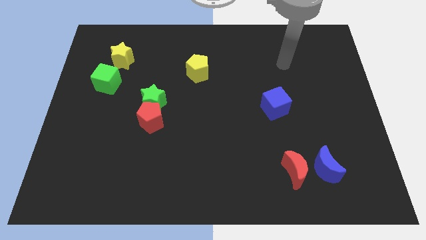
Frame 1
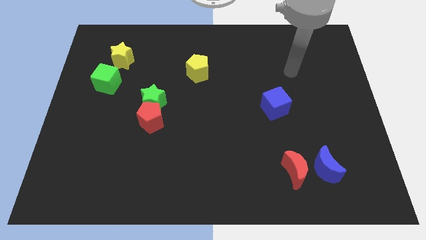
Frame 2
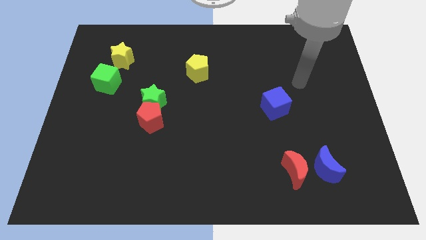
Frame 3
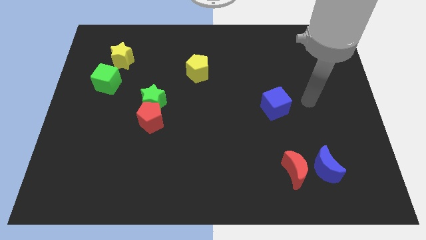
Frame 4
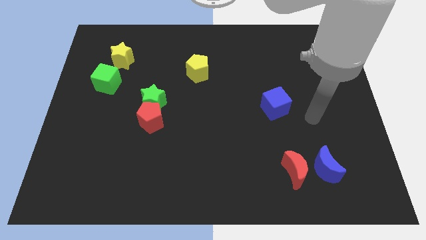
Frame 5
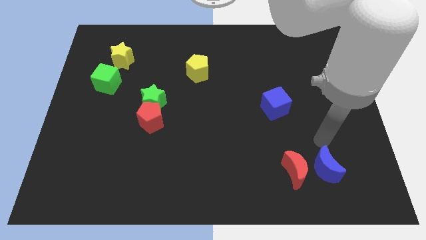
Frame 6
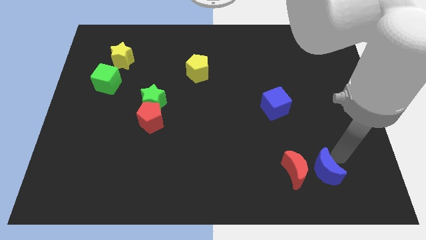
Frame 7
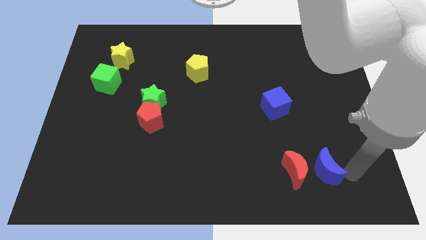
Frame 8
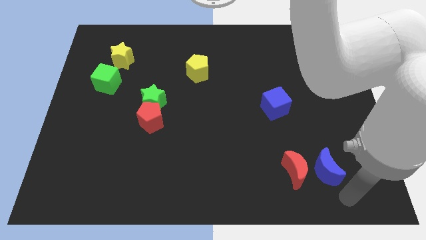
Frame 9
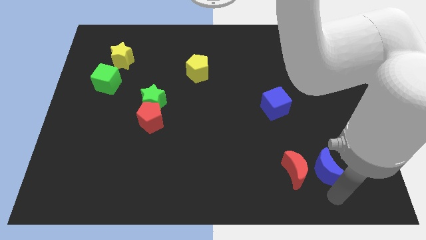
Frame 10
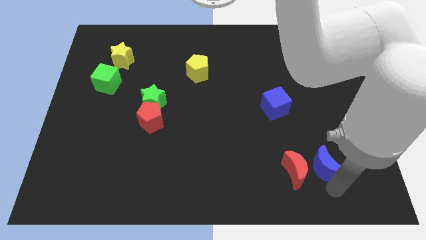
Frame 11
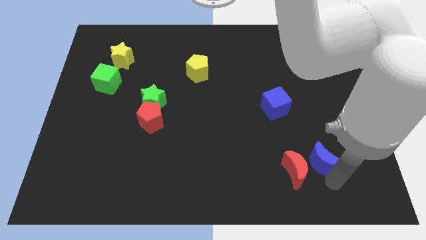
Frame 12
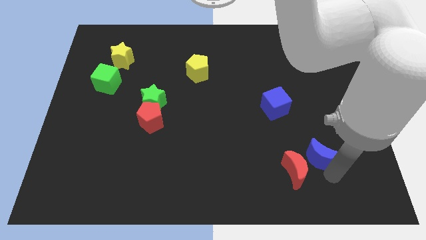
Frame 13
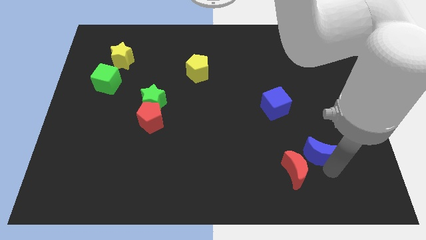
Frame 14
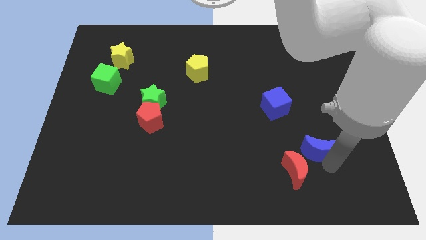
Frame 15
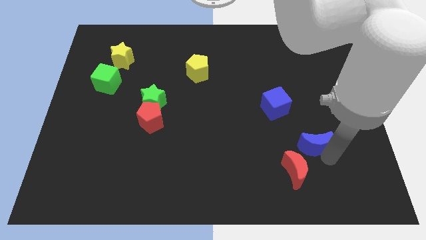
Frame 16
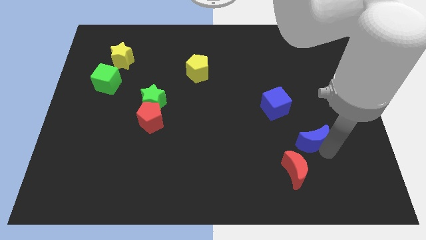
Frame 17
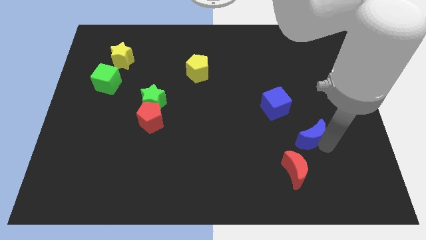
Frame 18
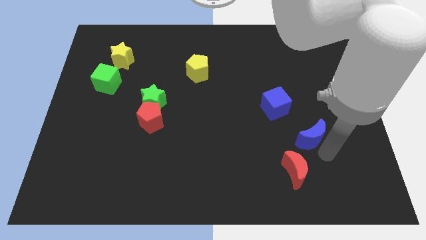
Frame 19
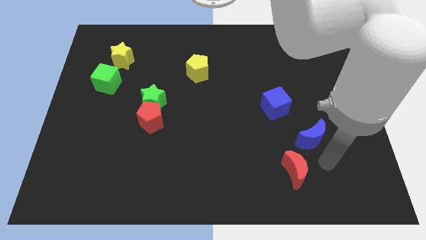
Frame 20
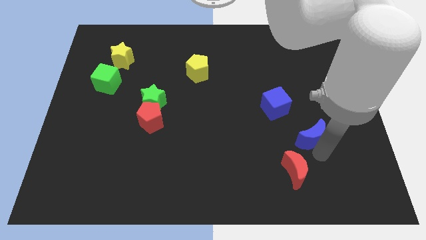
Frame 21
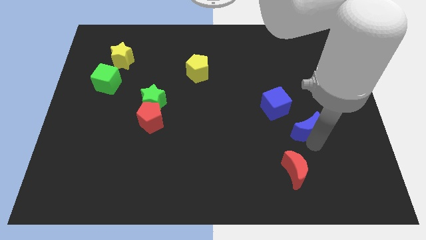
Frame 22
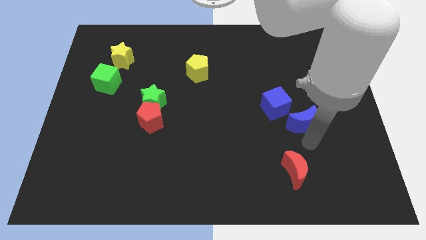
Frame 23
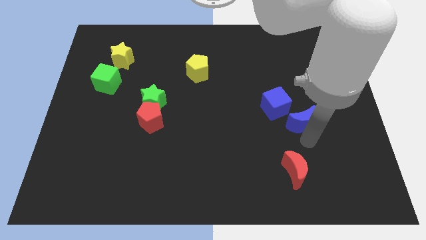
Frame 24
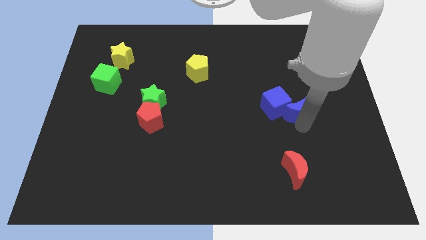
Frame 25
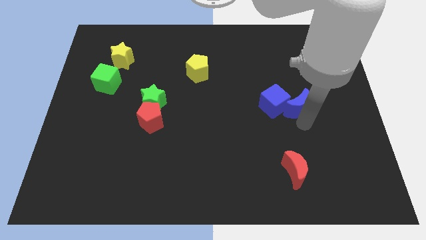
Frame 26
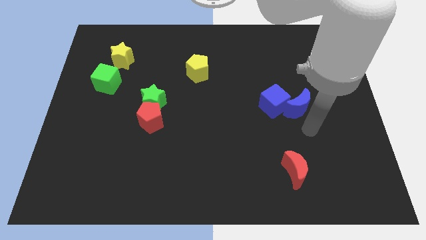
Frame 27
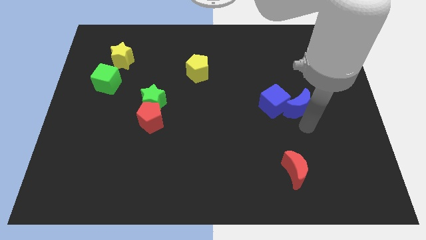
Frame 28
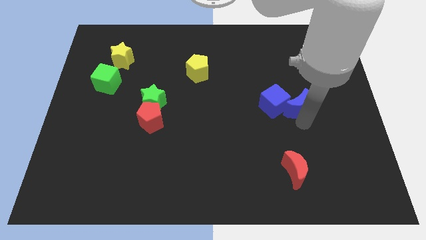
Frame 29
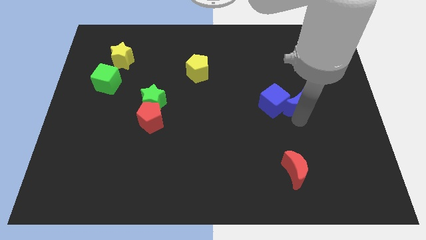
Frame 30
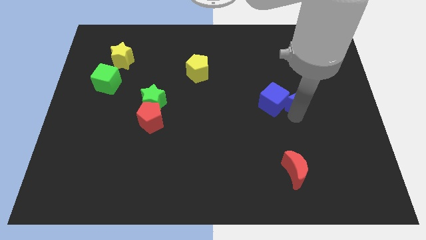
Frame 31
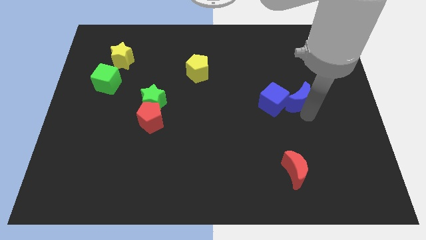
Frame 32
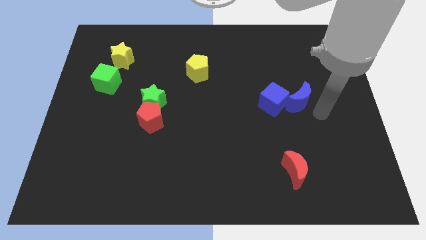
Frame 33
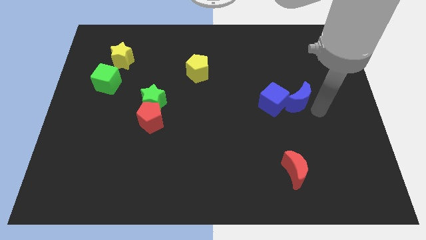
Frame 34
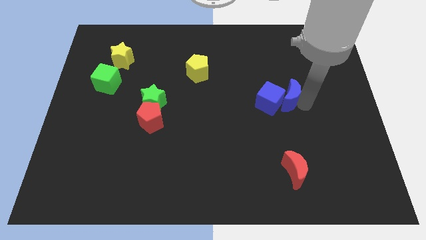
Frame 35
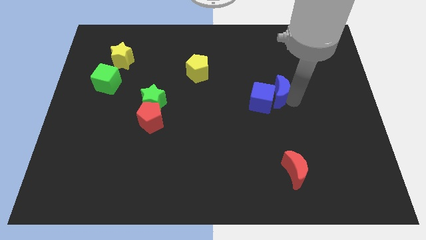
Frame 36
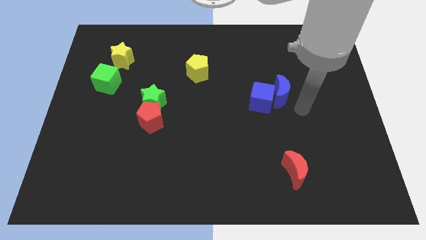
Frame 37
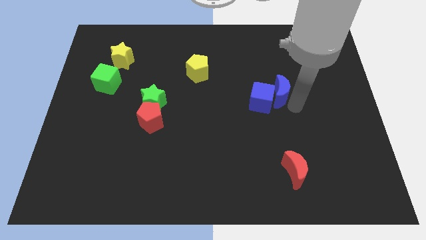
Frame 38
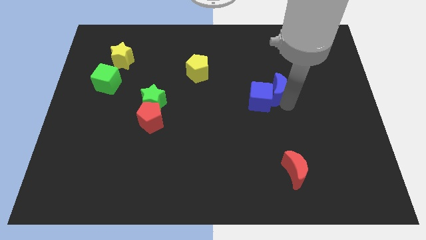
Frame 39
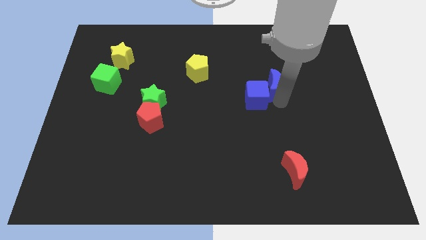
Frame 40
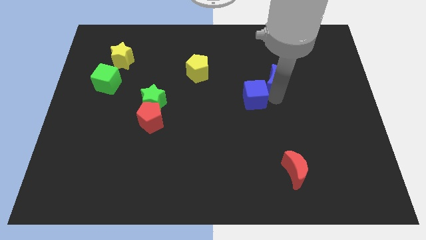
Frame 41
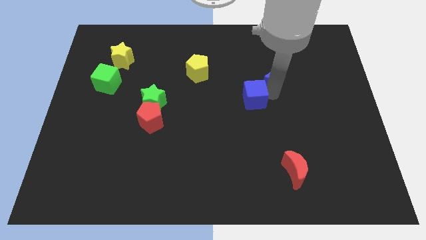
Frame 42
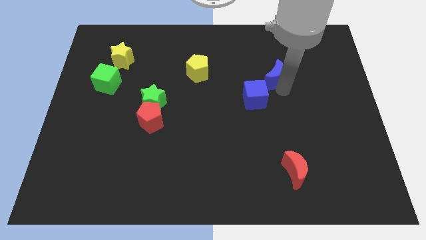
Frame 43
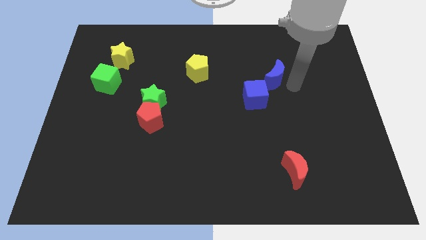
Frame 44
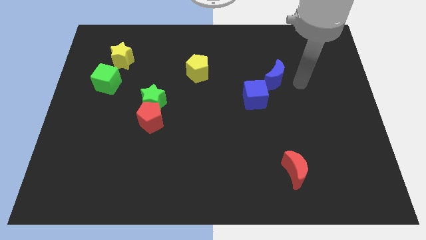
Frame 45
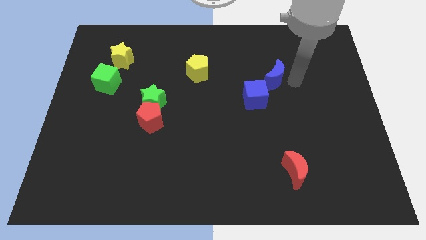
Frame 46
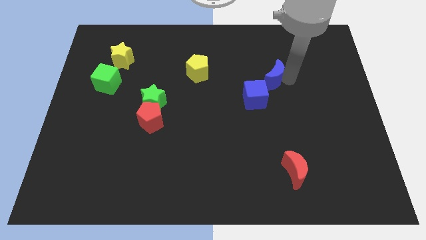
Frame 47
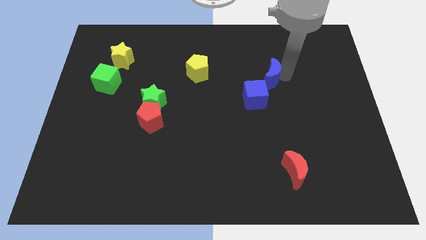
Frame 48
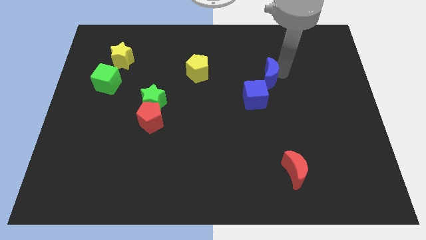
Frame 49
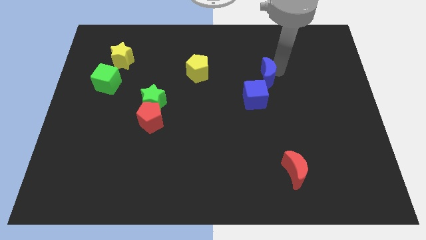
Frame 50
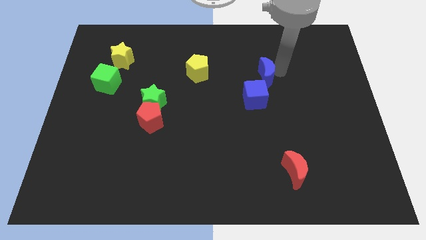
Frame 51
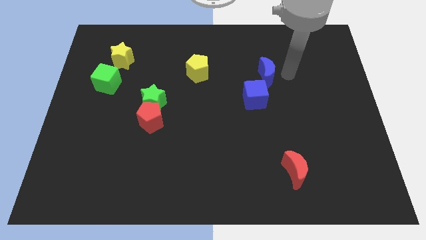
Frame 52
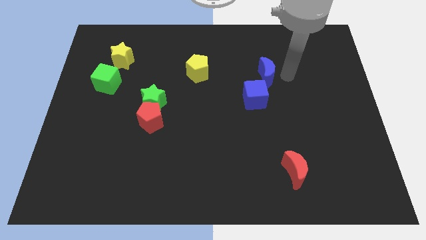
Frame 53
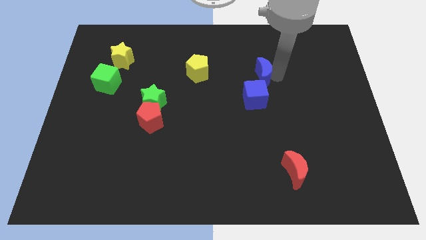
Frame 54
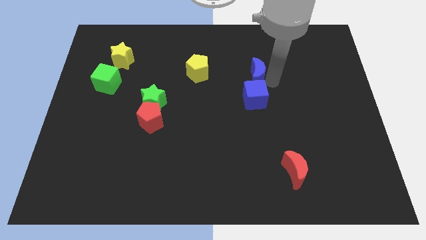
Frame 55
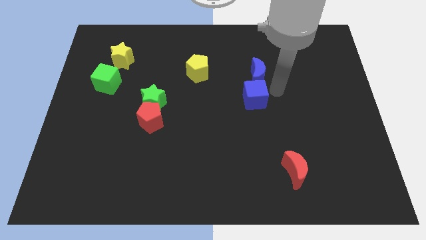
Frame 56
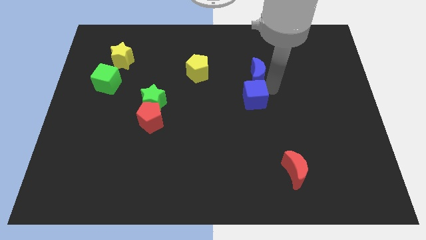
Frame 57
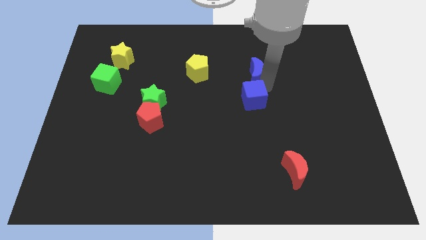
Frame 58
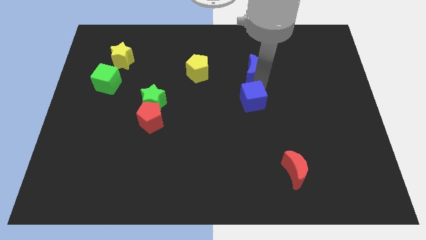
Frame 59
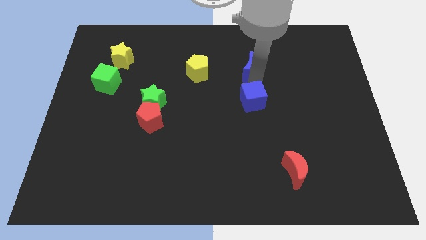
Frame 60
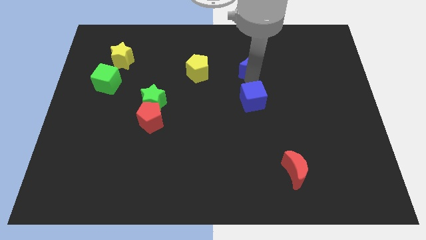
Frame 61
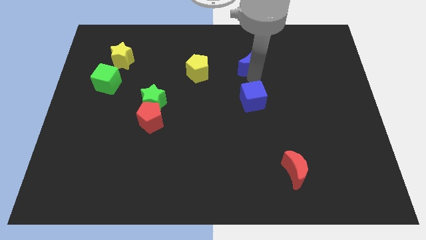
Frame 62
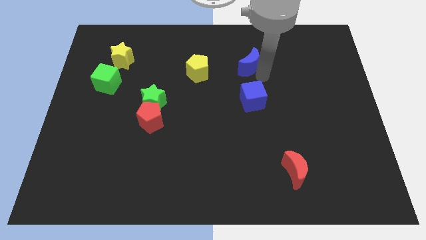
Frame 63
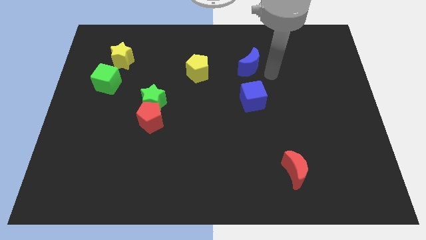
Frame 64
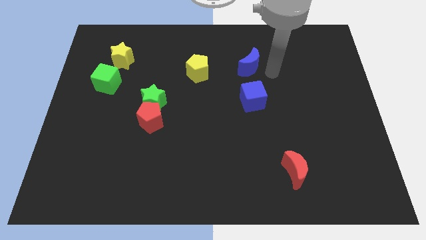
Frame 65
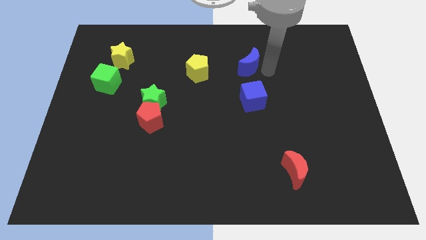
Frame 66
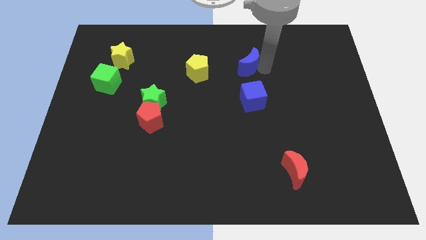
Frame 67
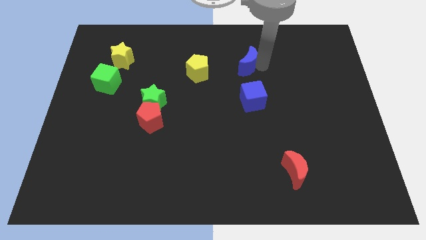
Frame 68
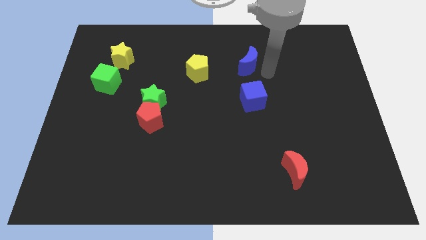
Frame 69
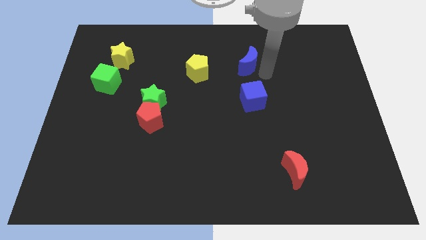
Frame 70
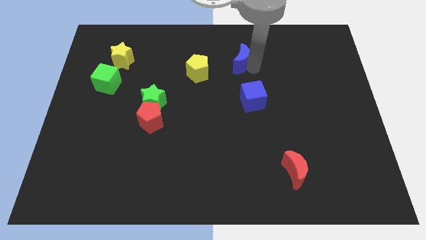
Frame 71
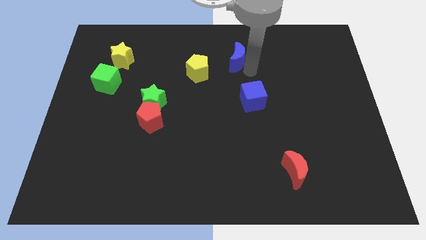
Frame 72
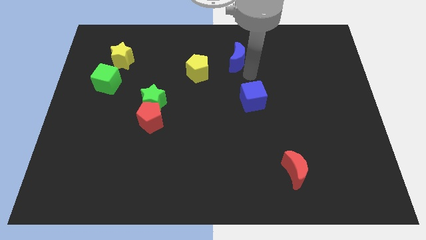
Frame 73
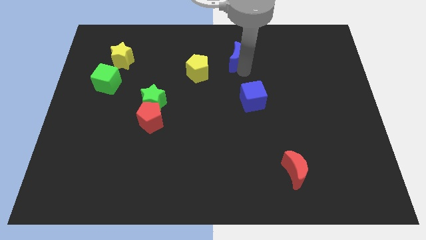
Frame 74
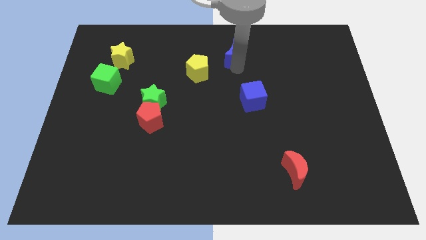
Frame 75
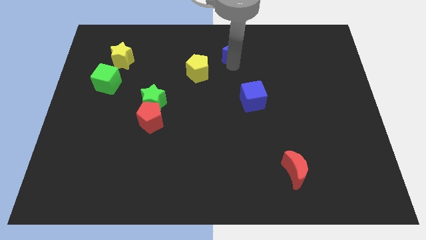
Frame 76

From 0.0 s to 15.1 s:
slide the blue moon to the towards your base
